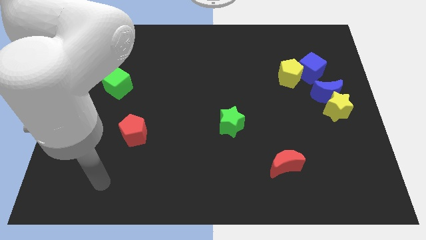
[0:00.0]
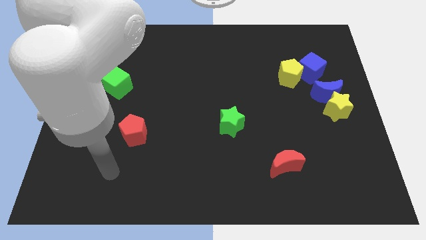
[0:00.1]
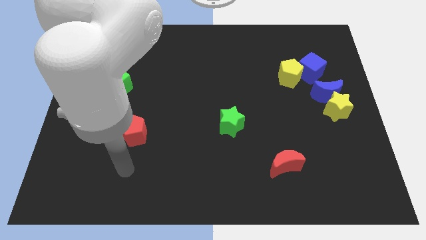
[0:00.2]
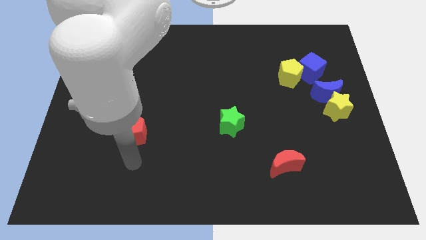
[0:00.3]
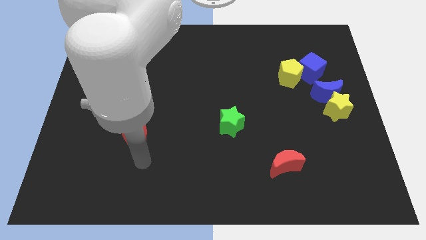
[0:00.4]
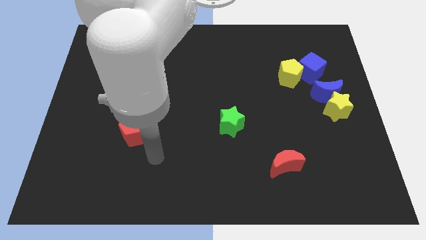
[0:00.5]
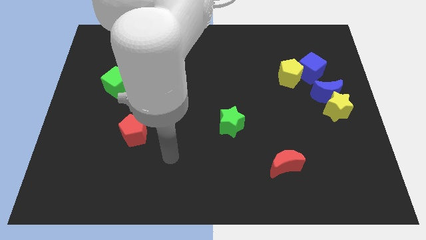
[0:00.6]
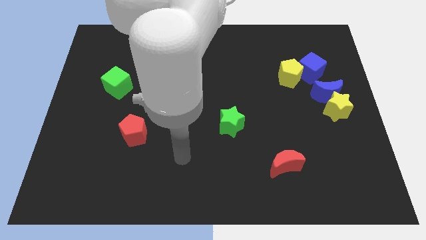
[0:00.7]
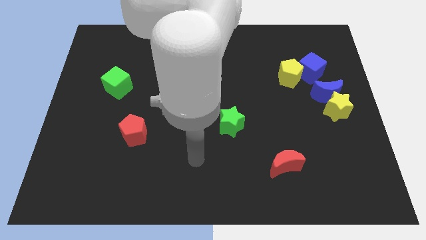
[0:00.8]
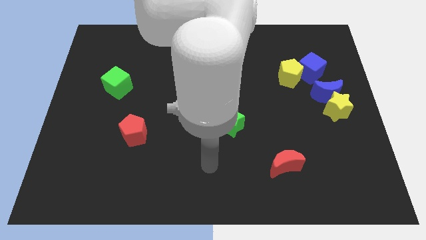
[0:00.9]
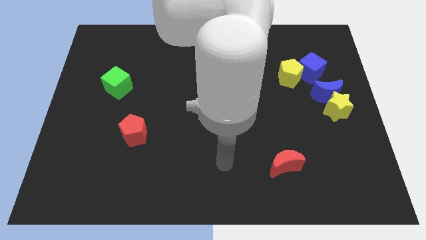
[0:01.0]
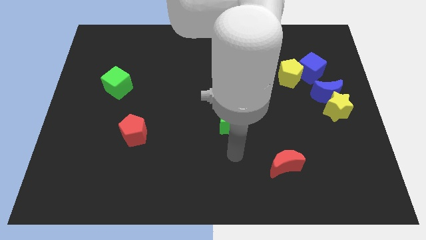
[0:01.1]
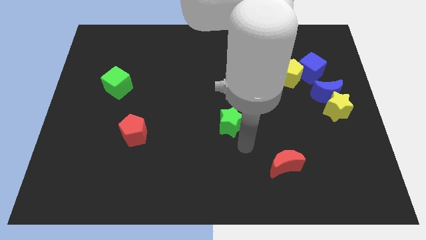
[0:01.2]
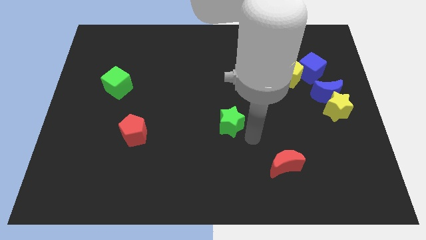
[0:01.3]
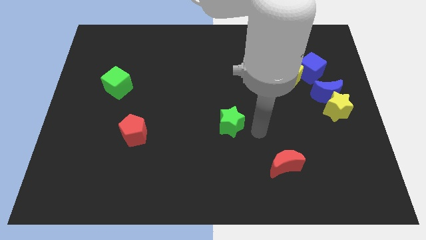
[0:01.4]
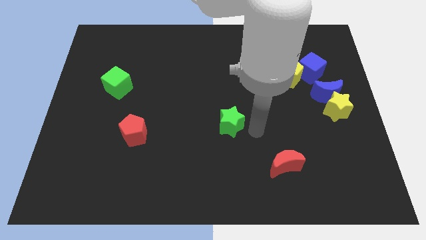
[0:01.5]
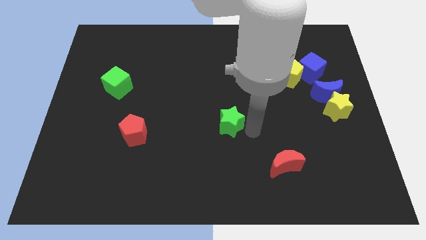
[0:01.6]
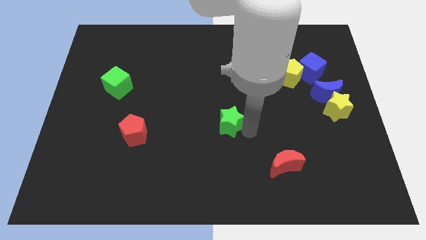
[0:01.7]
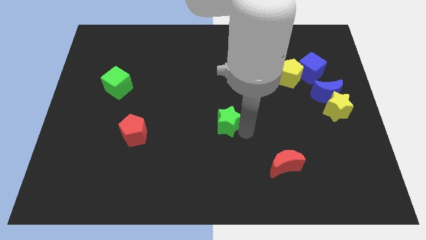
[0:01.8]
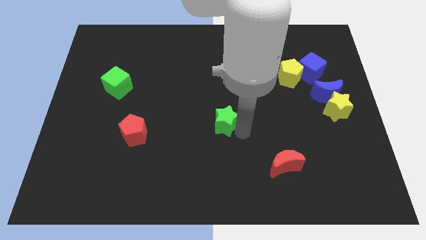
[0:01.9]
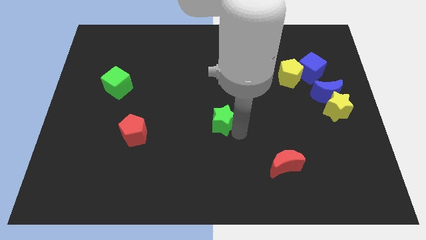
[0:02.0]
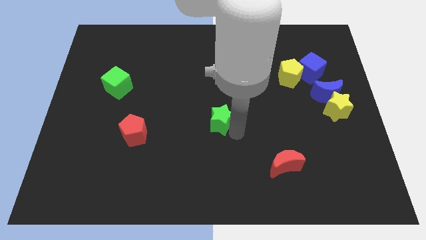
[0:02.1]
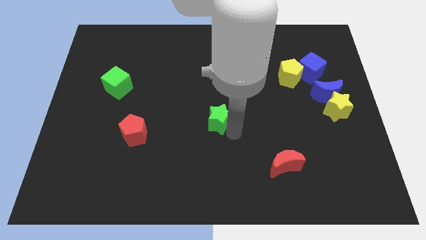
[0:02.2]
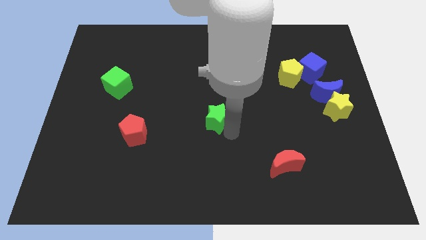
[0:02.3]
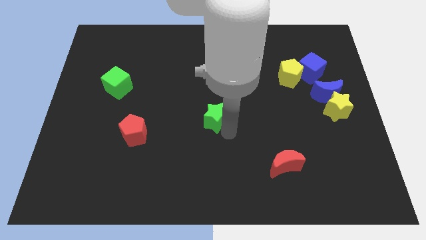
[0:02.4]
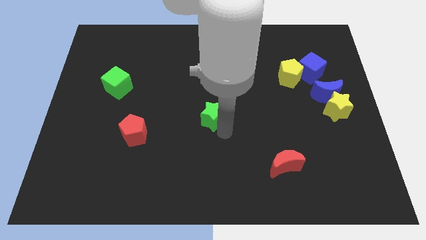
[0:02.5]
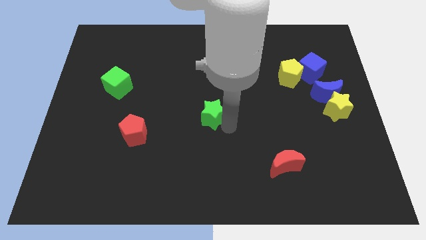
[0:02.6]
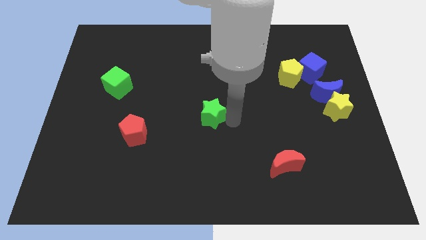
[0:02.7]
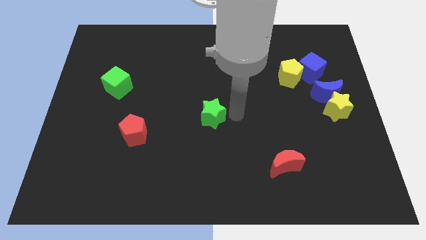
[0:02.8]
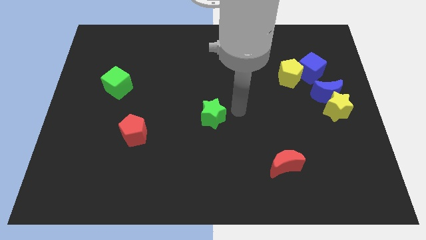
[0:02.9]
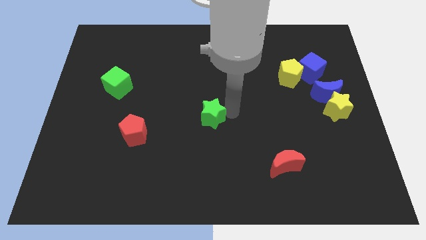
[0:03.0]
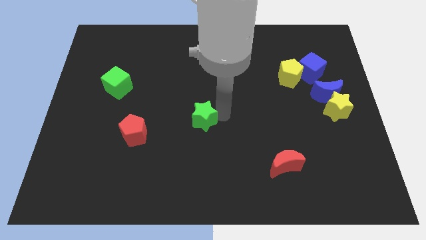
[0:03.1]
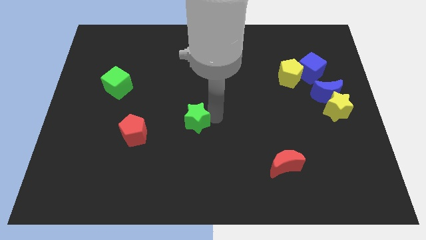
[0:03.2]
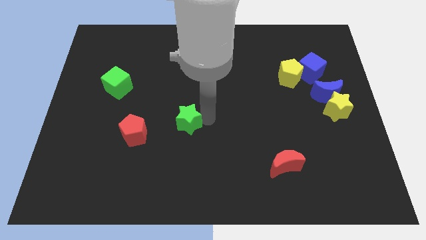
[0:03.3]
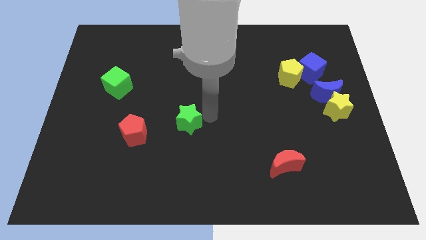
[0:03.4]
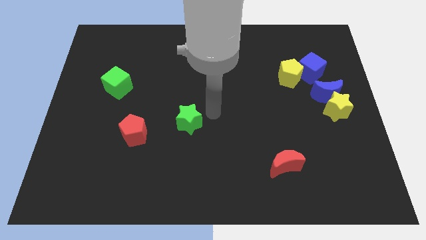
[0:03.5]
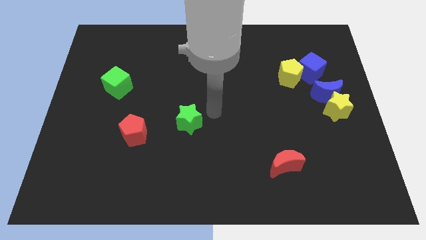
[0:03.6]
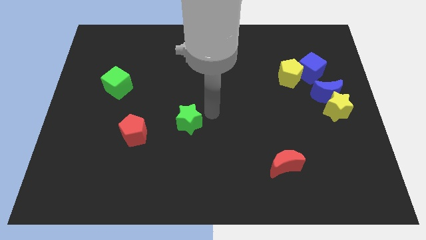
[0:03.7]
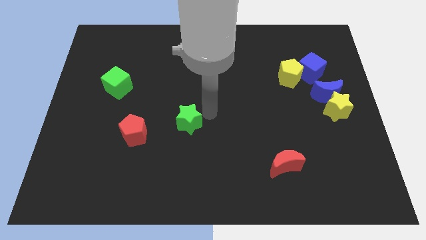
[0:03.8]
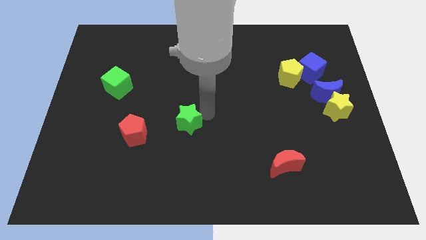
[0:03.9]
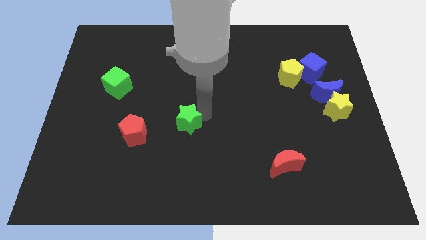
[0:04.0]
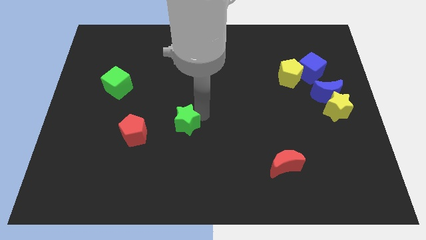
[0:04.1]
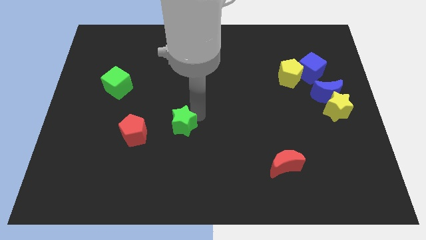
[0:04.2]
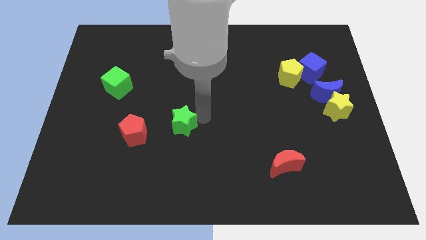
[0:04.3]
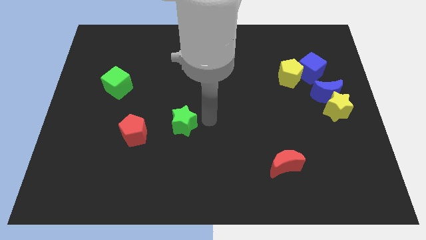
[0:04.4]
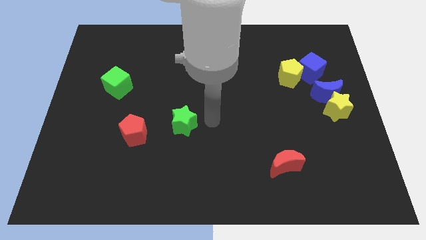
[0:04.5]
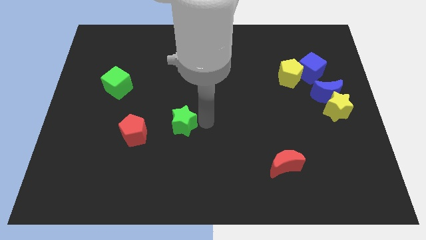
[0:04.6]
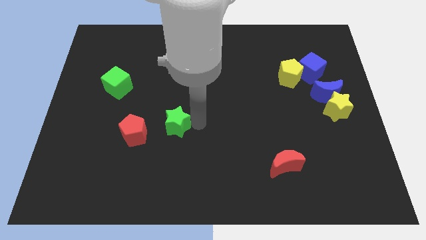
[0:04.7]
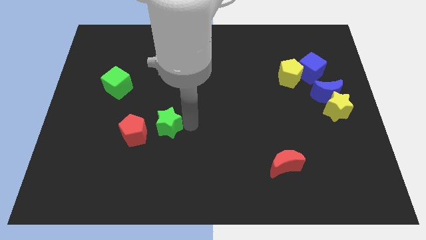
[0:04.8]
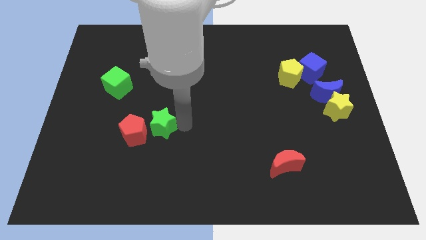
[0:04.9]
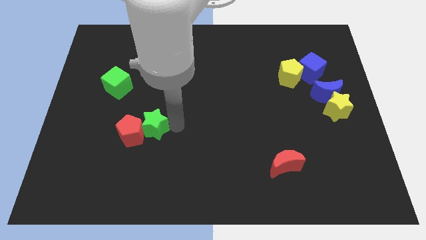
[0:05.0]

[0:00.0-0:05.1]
push the green star next to the red pentagon

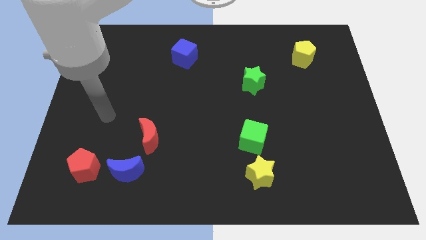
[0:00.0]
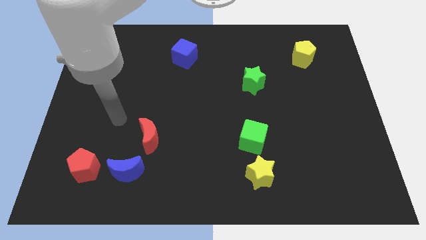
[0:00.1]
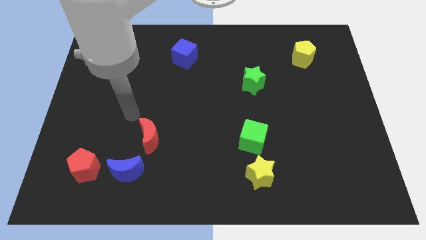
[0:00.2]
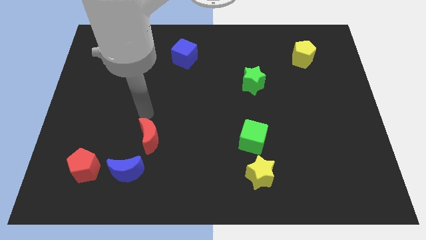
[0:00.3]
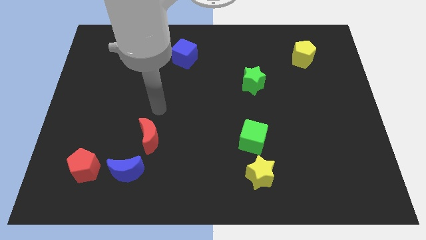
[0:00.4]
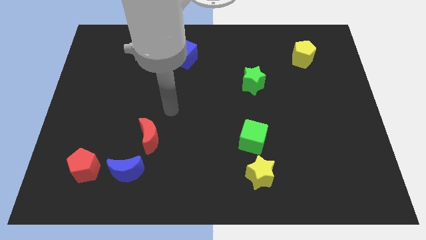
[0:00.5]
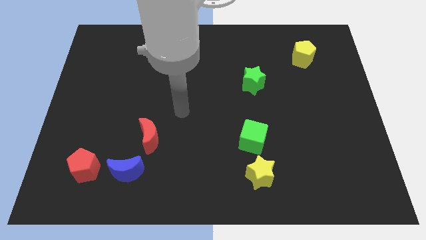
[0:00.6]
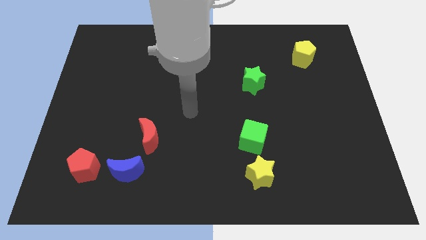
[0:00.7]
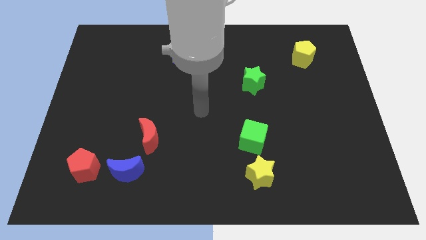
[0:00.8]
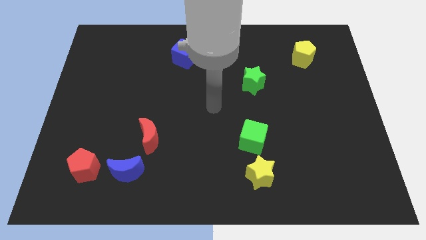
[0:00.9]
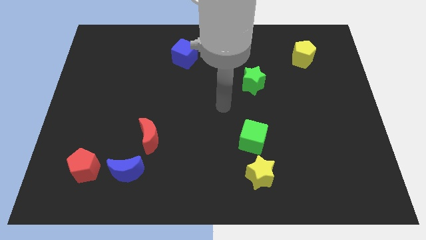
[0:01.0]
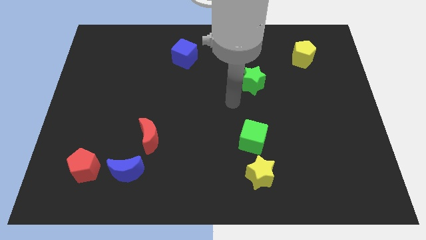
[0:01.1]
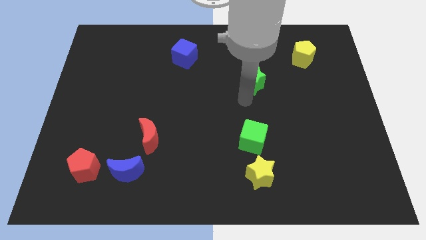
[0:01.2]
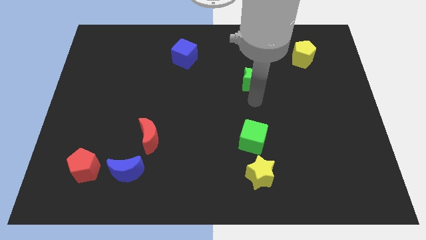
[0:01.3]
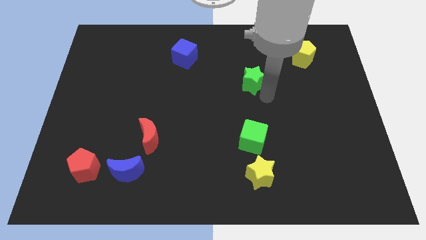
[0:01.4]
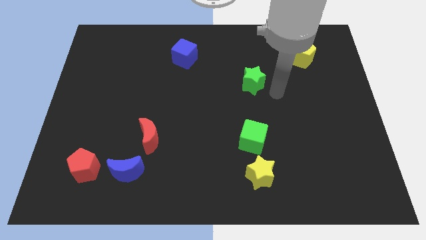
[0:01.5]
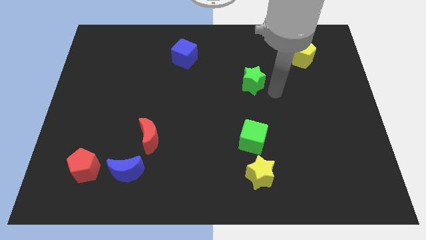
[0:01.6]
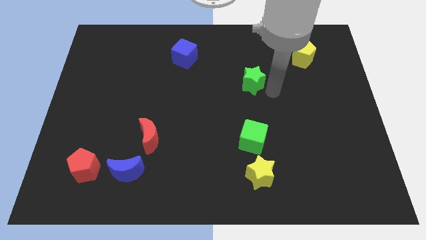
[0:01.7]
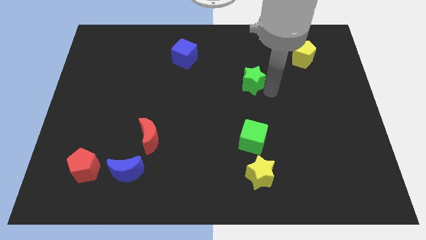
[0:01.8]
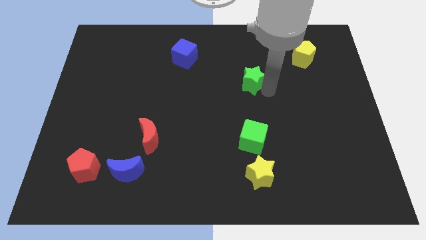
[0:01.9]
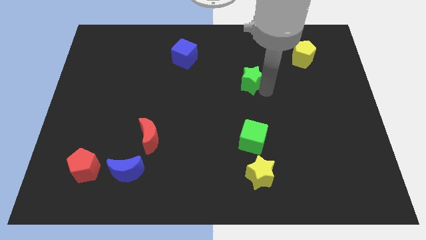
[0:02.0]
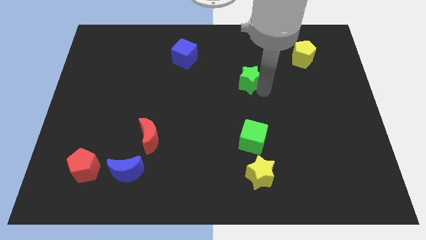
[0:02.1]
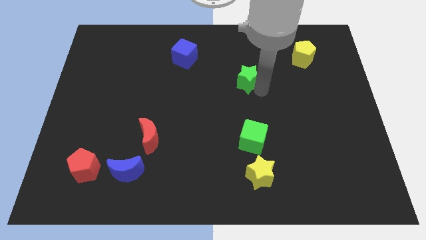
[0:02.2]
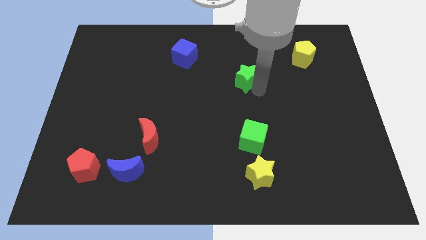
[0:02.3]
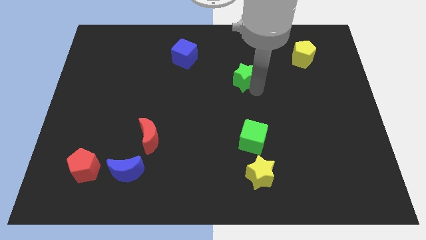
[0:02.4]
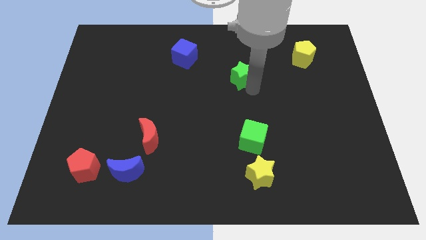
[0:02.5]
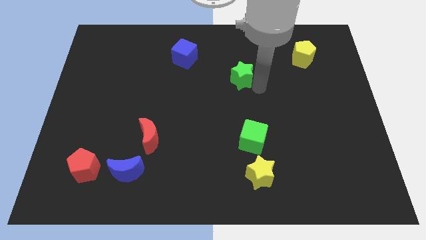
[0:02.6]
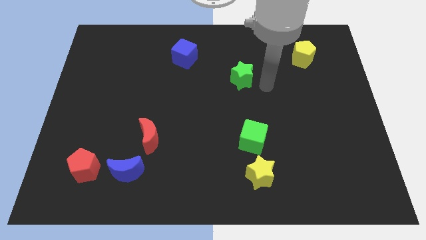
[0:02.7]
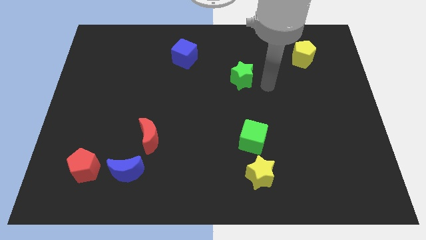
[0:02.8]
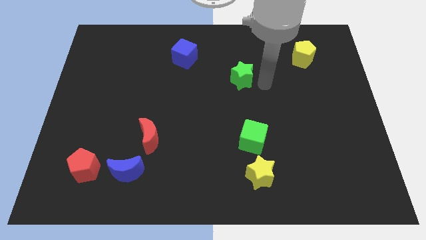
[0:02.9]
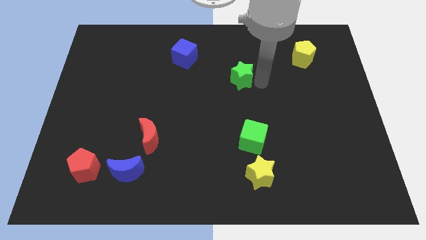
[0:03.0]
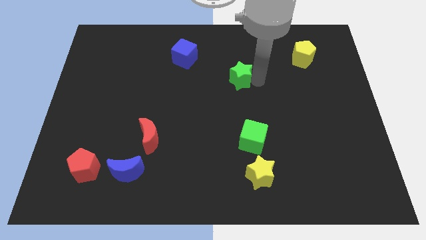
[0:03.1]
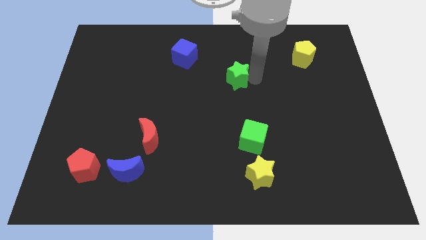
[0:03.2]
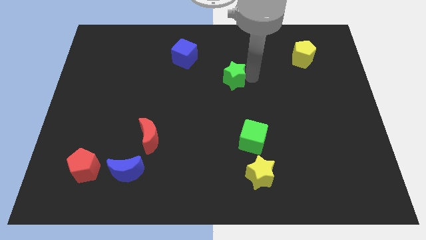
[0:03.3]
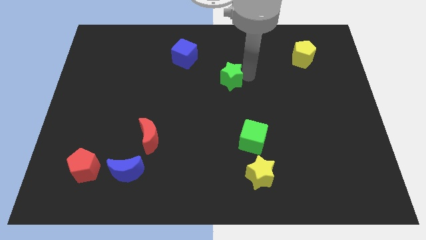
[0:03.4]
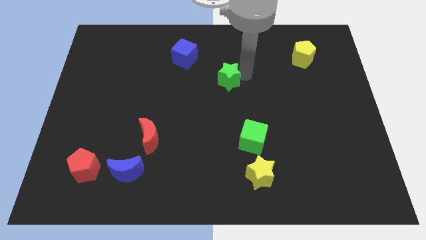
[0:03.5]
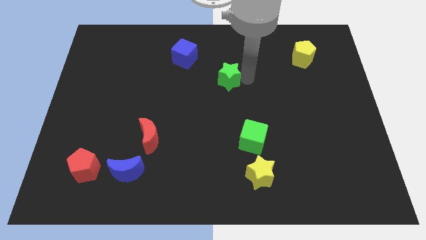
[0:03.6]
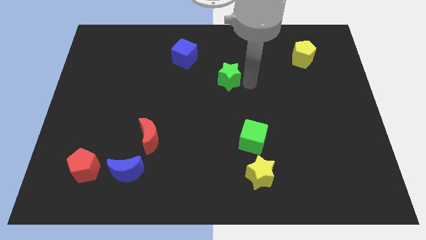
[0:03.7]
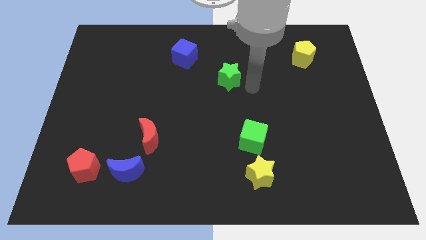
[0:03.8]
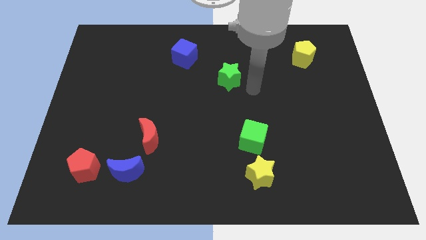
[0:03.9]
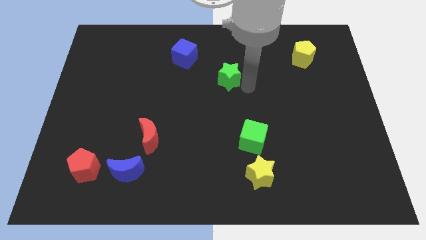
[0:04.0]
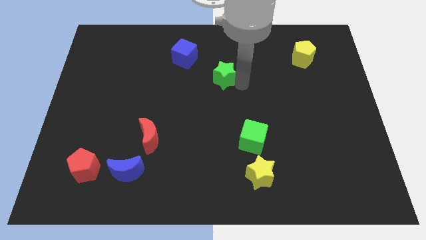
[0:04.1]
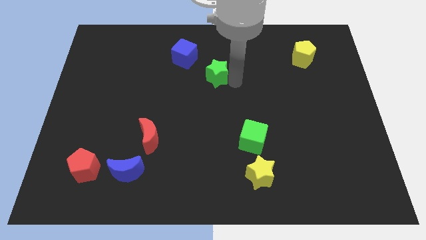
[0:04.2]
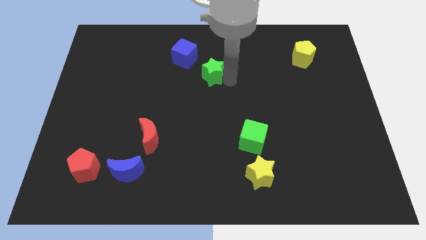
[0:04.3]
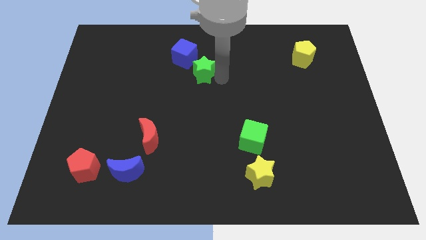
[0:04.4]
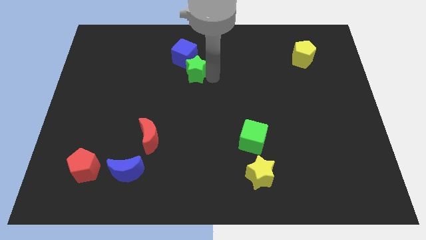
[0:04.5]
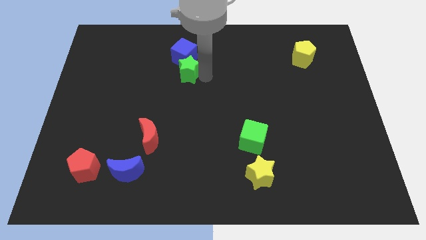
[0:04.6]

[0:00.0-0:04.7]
slide the green star towards the blue cube
